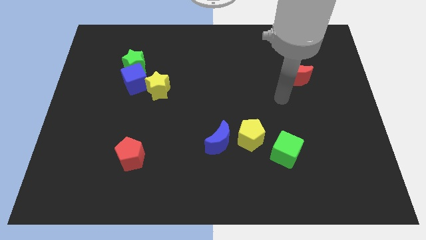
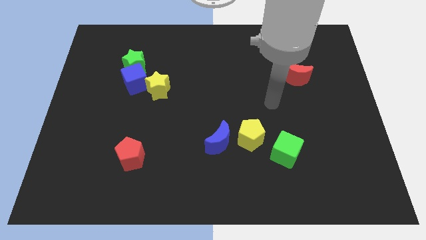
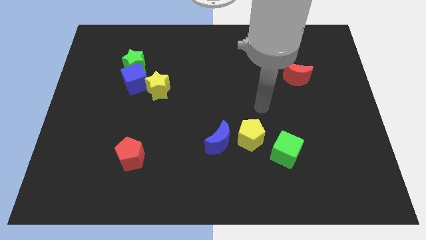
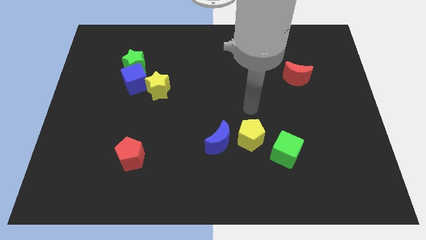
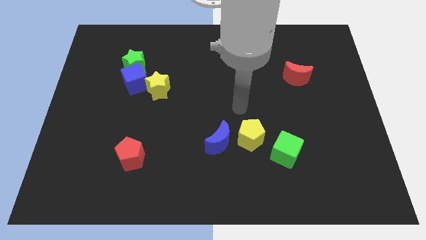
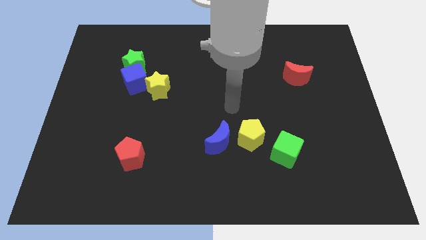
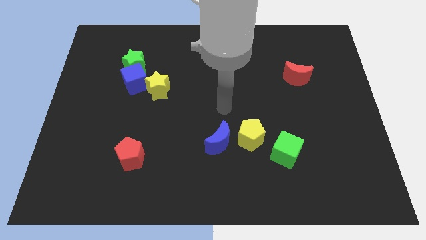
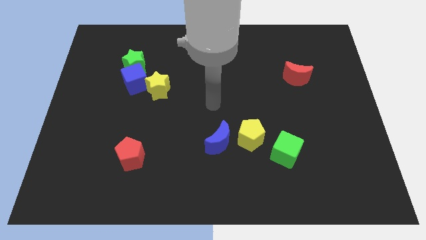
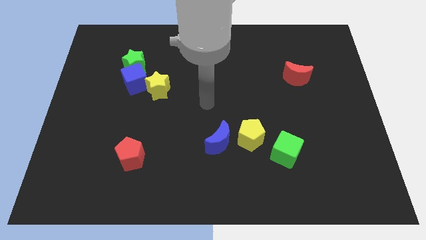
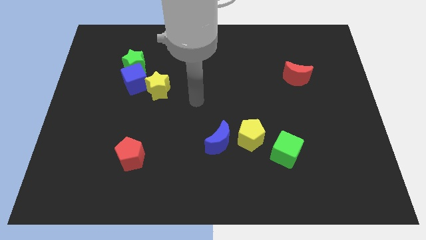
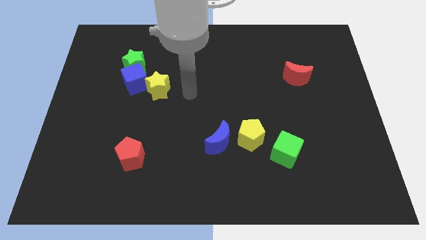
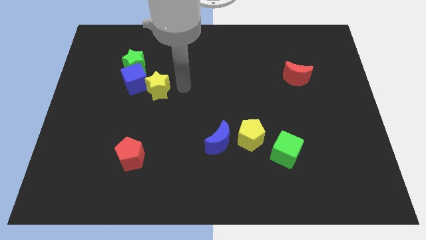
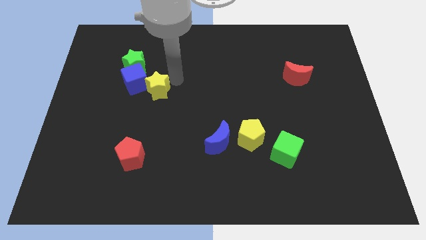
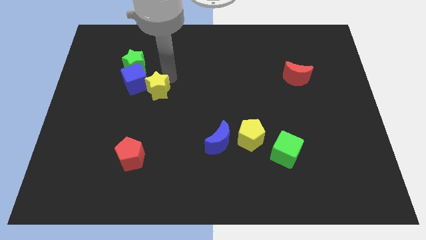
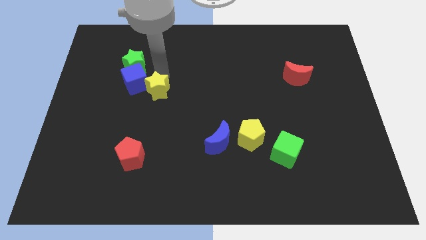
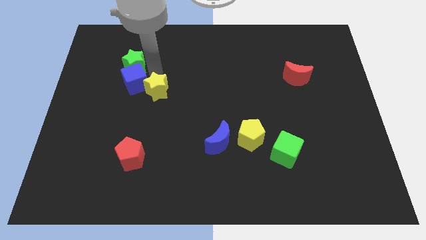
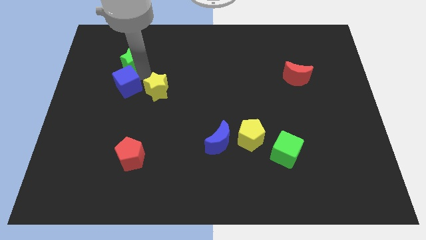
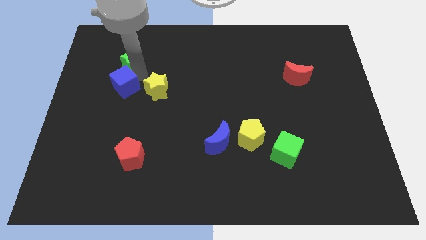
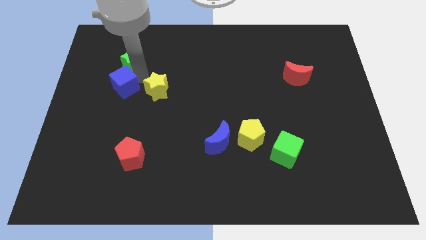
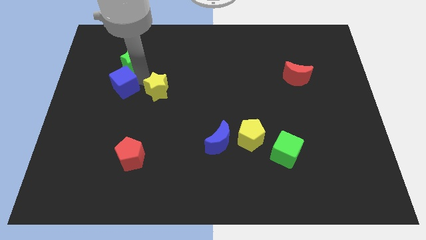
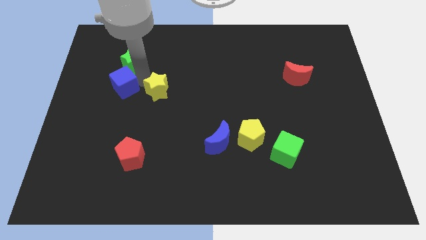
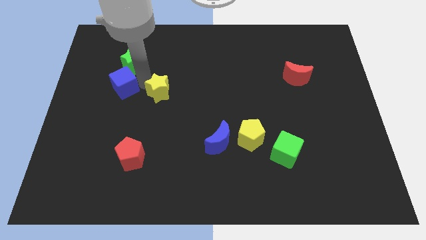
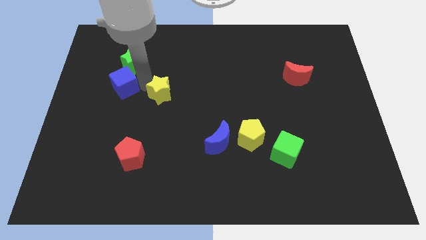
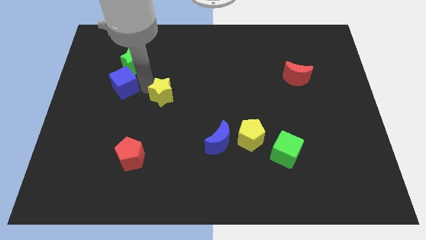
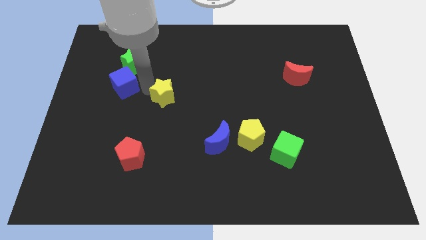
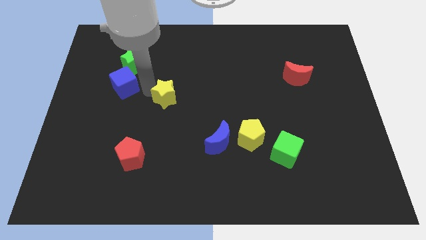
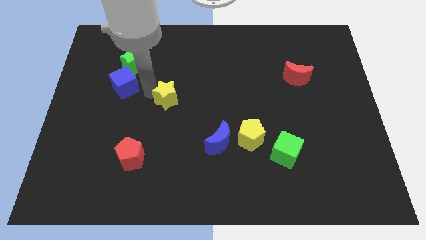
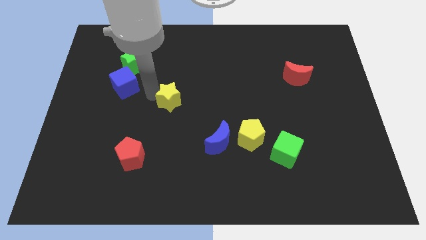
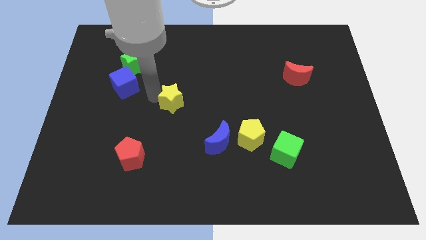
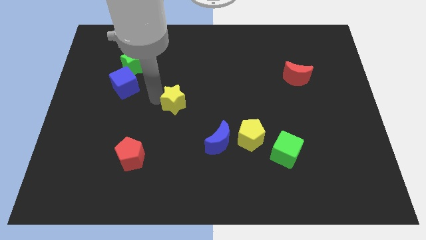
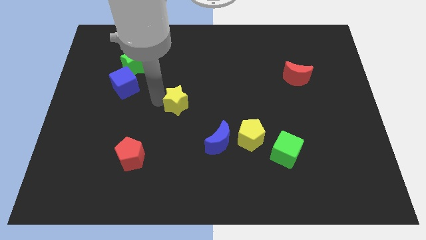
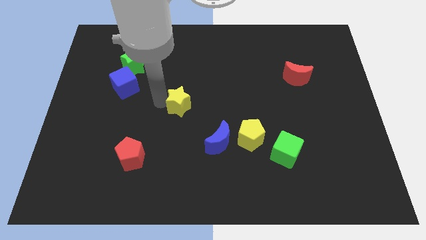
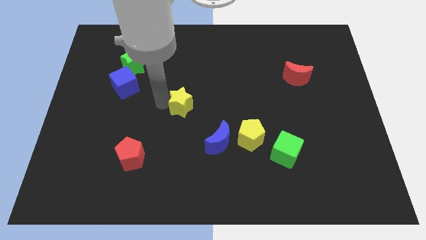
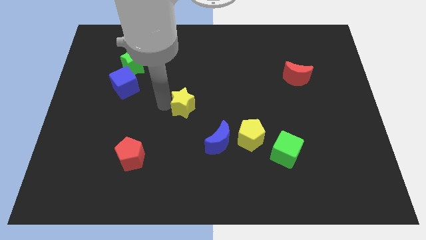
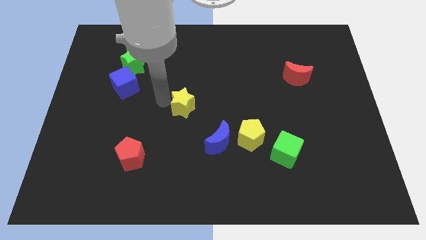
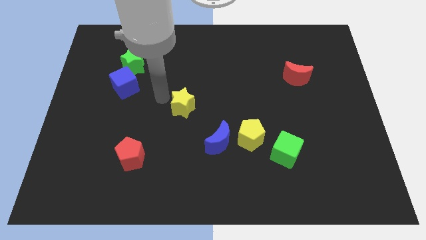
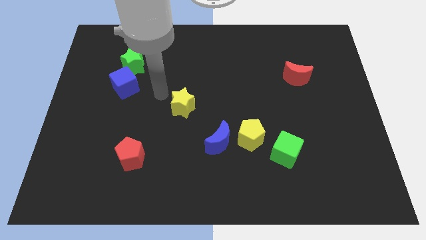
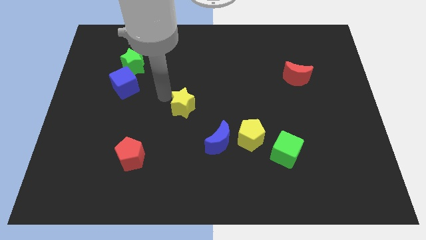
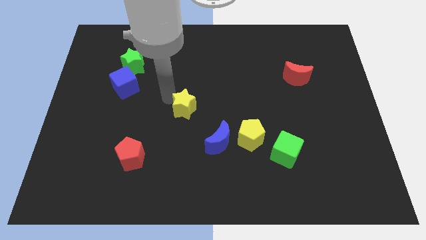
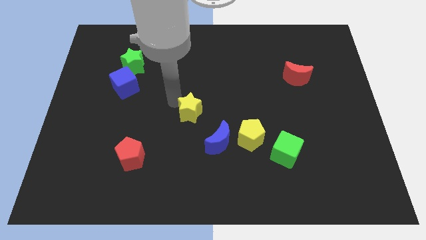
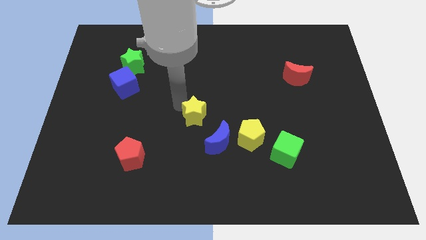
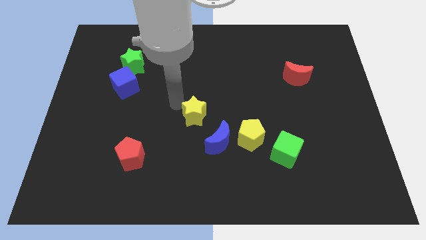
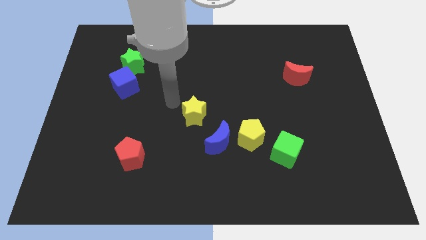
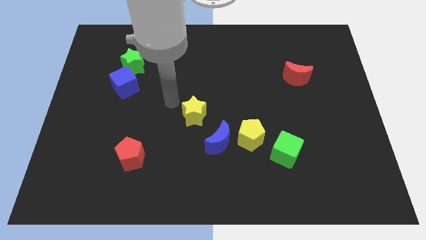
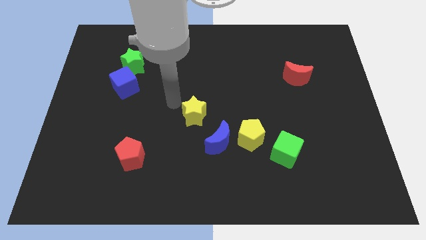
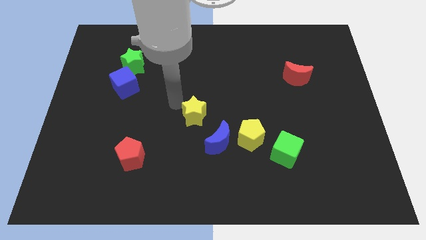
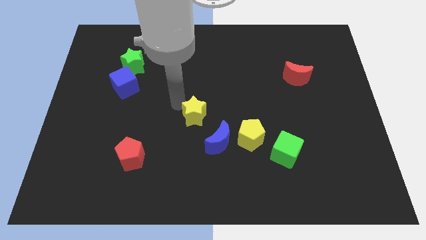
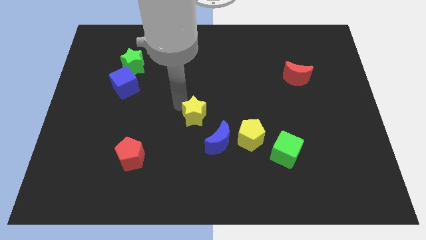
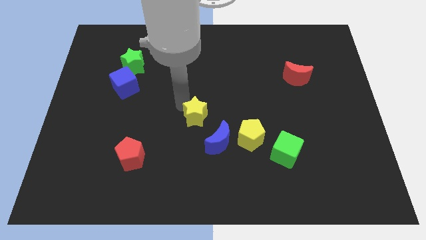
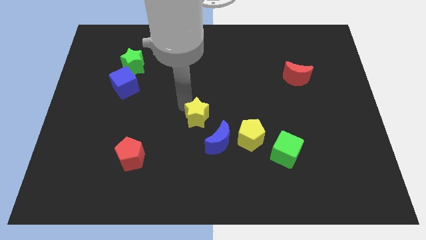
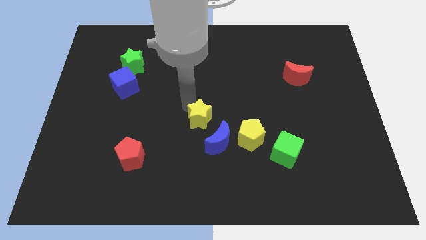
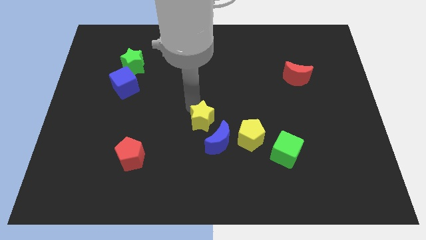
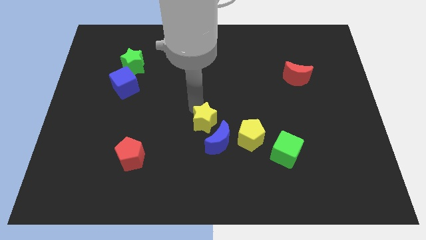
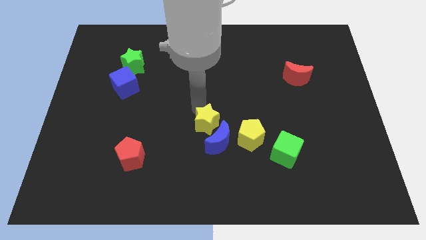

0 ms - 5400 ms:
put the yellow star towards the blue moon

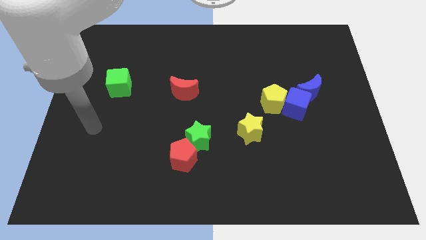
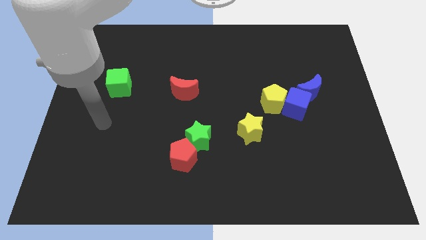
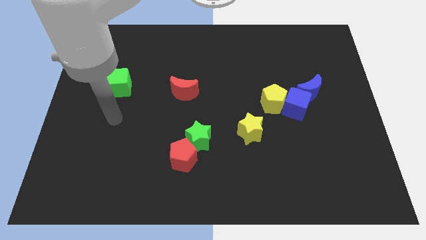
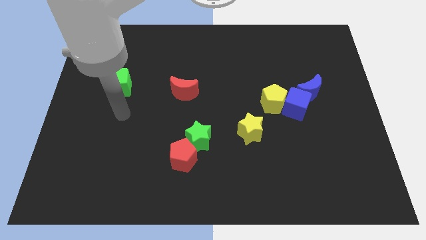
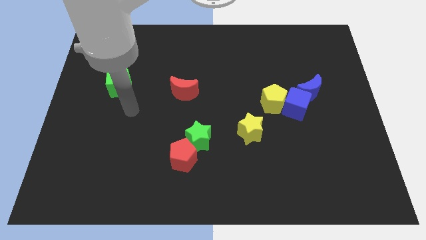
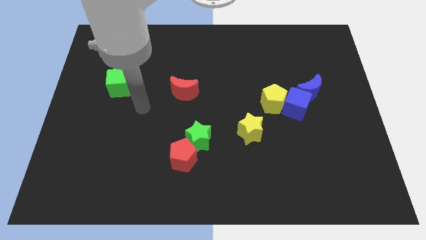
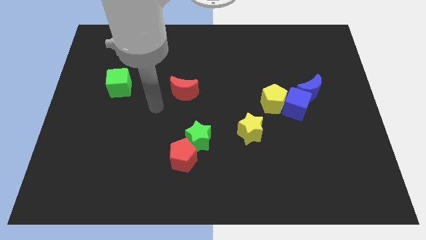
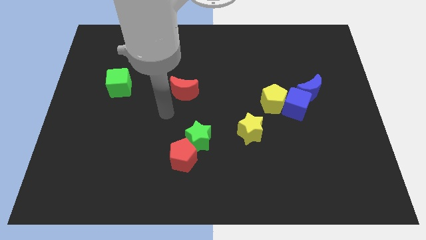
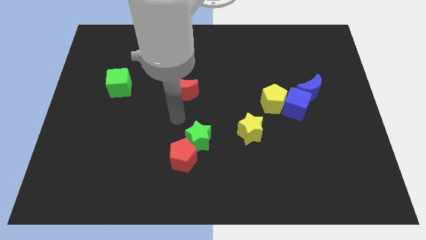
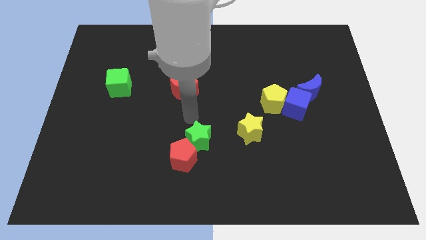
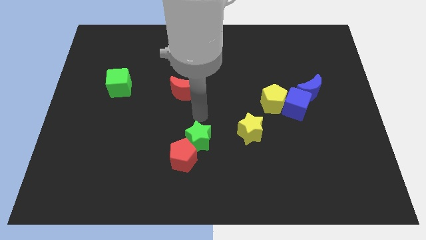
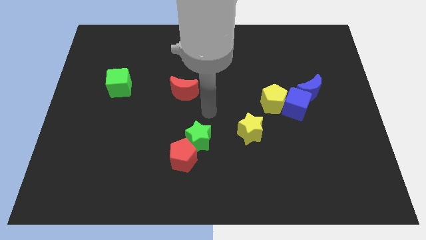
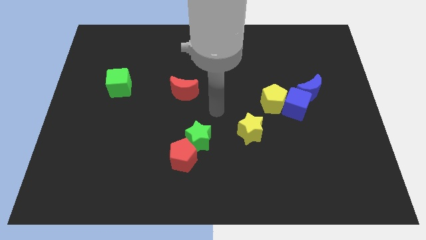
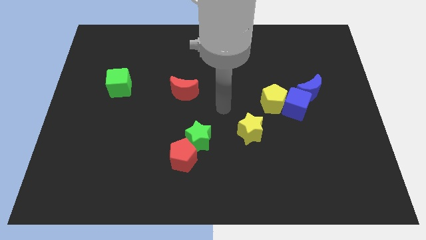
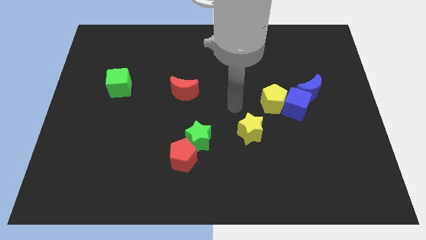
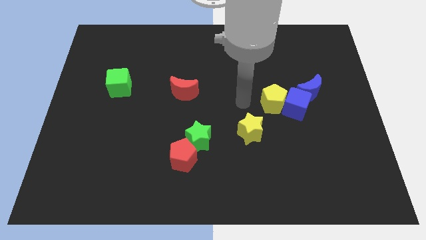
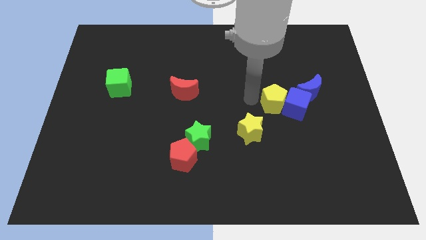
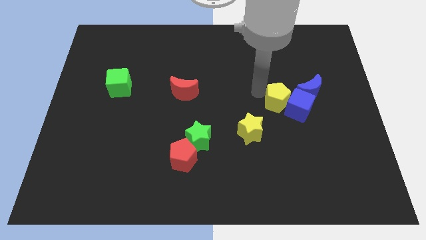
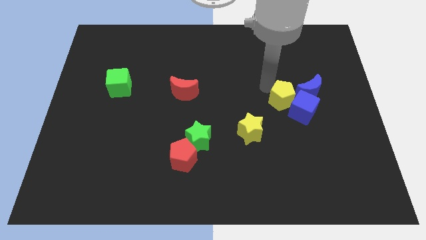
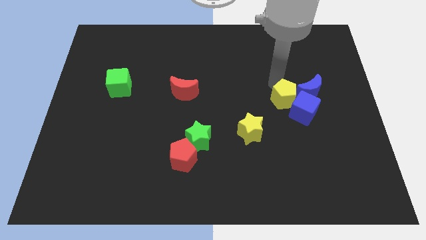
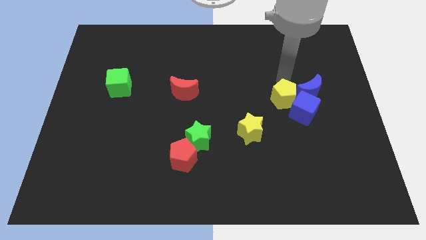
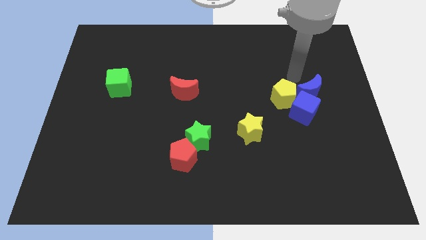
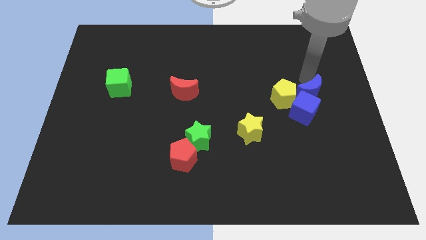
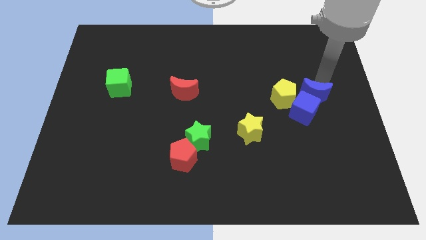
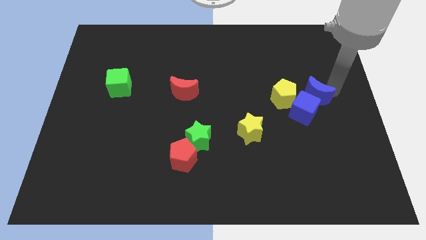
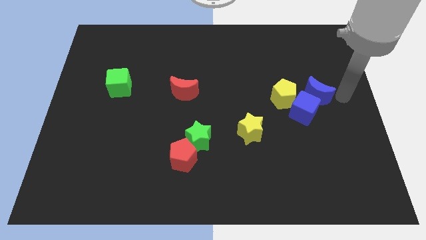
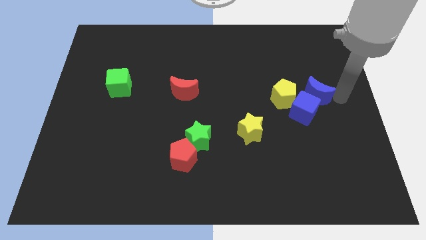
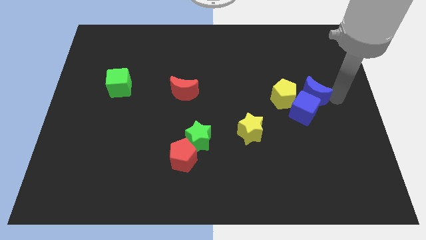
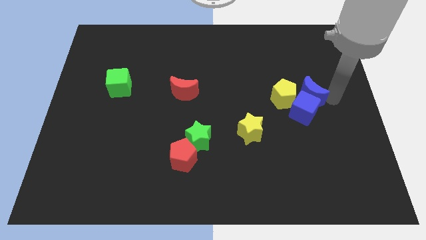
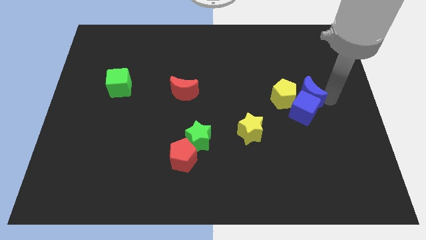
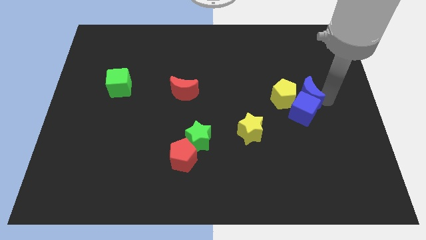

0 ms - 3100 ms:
push the blue moon next to the yellow pentagon
